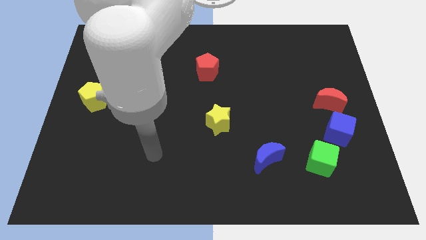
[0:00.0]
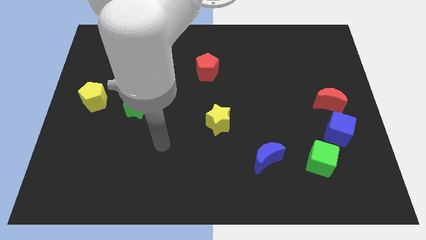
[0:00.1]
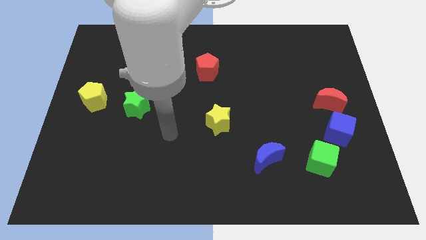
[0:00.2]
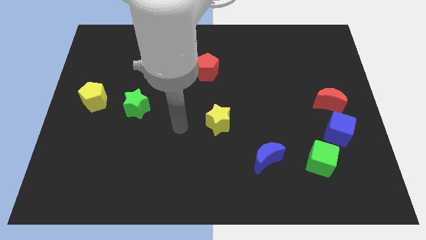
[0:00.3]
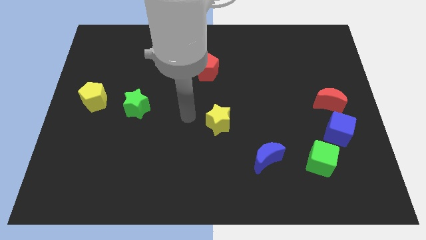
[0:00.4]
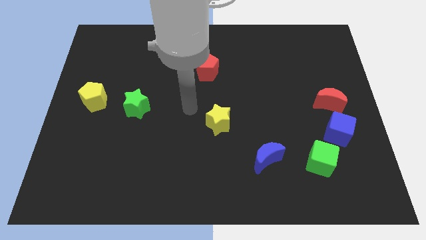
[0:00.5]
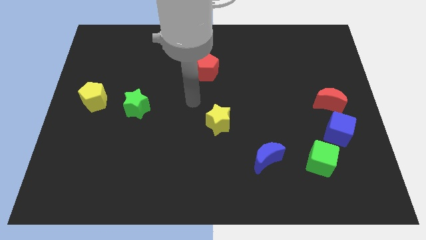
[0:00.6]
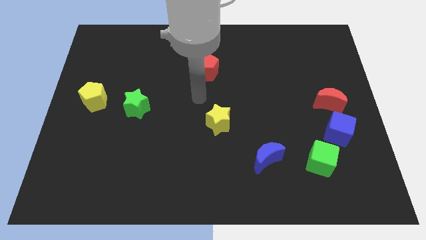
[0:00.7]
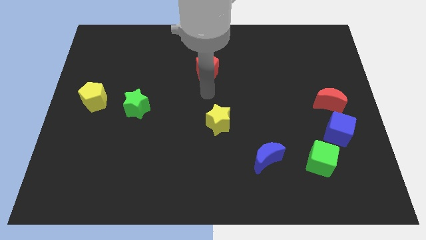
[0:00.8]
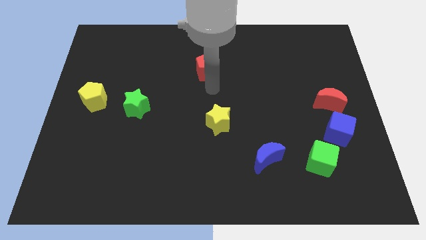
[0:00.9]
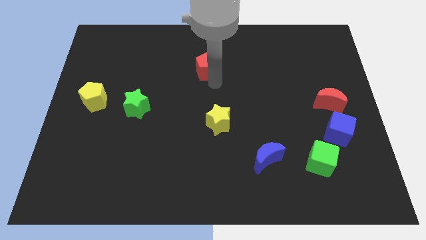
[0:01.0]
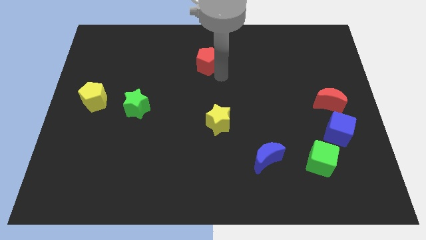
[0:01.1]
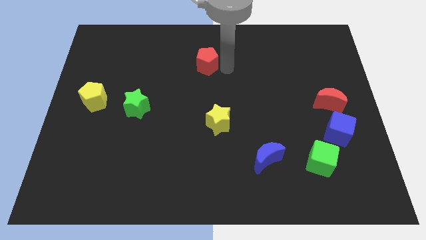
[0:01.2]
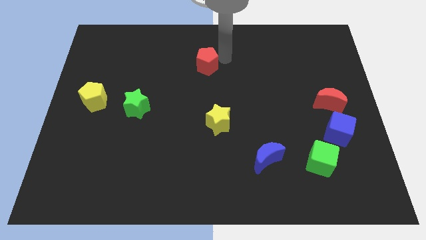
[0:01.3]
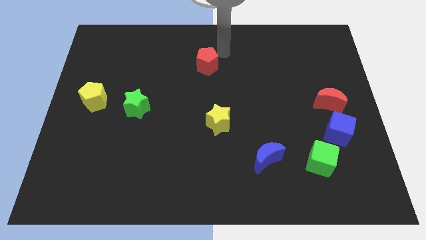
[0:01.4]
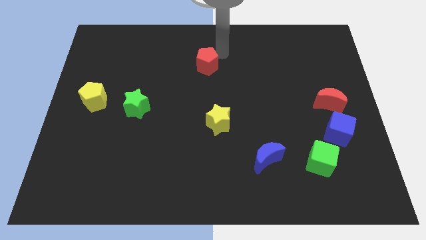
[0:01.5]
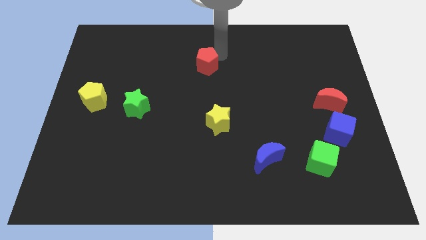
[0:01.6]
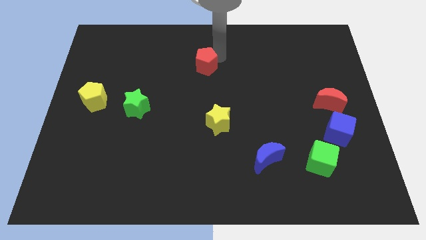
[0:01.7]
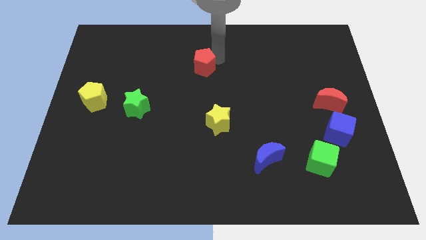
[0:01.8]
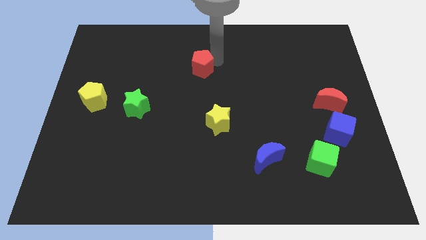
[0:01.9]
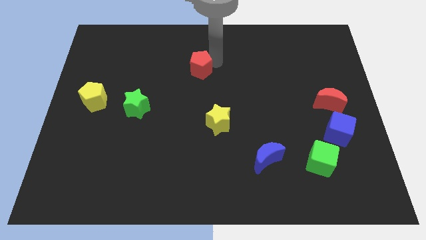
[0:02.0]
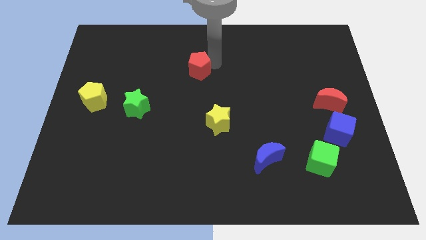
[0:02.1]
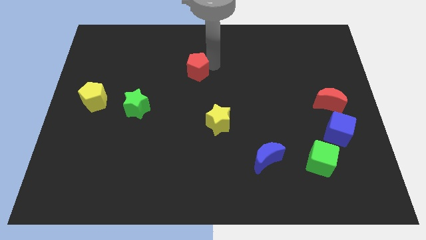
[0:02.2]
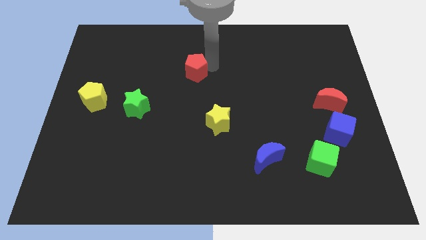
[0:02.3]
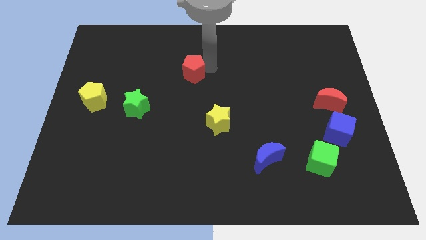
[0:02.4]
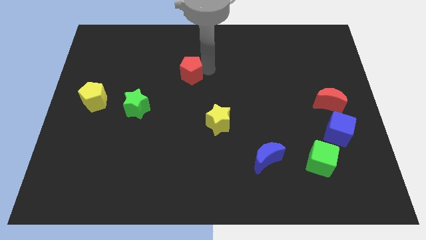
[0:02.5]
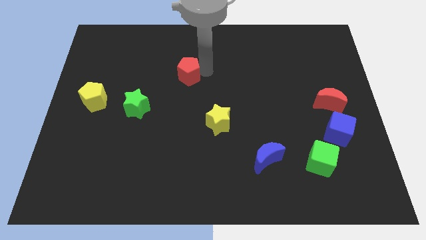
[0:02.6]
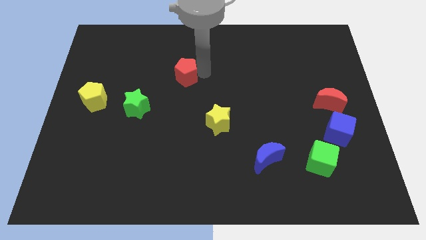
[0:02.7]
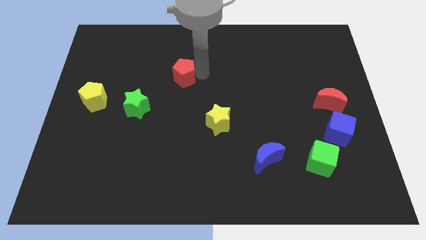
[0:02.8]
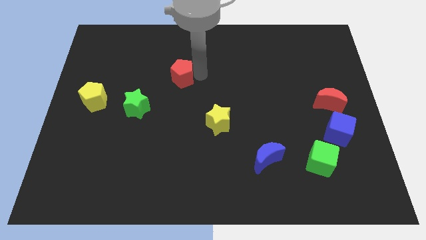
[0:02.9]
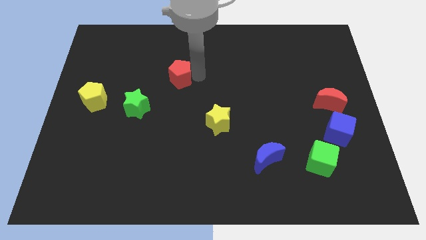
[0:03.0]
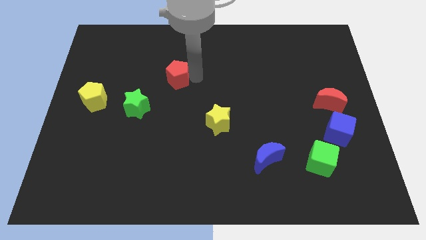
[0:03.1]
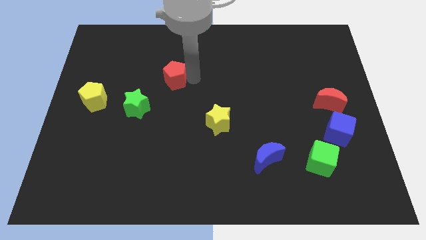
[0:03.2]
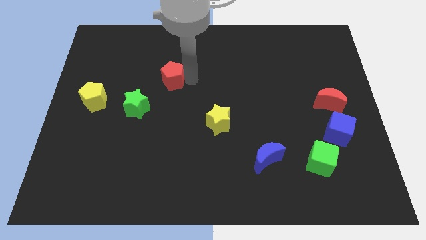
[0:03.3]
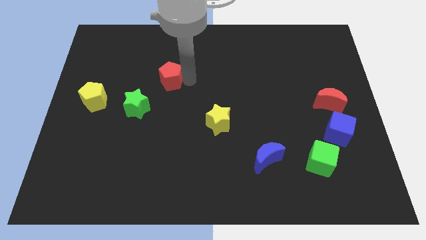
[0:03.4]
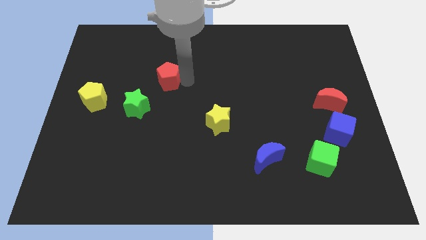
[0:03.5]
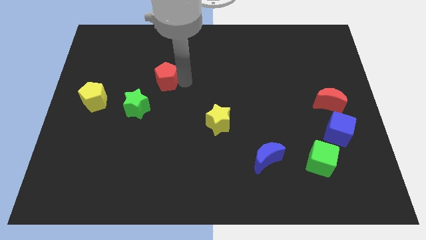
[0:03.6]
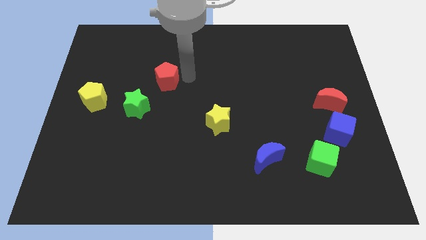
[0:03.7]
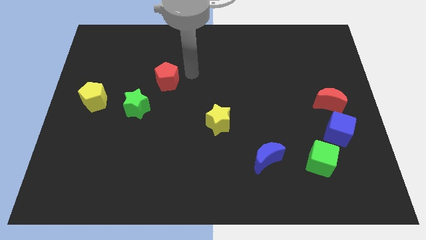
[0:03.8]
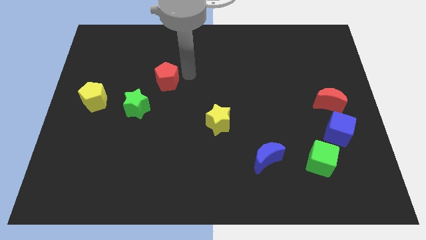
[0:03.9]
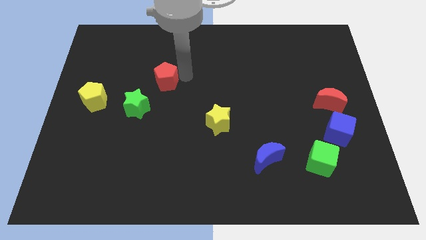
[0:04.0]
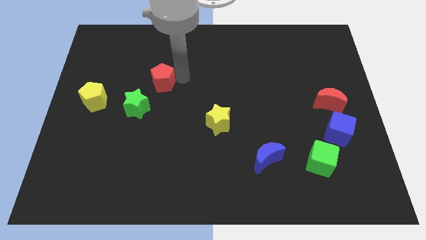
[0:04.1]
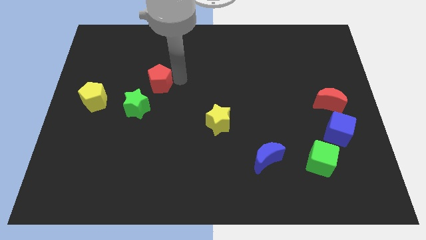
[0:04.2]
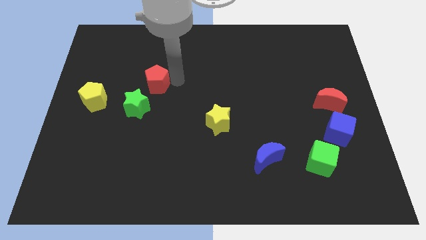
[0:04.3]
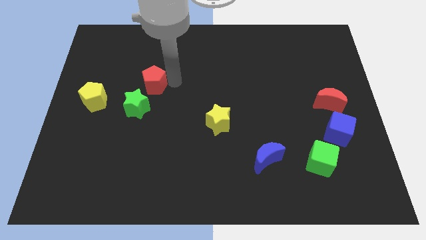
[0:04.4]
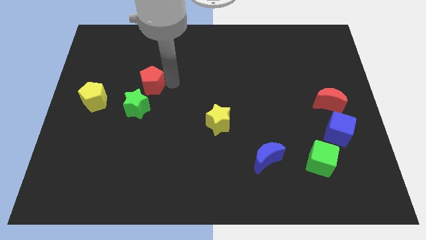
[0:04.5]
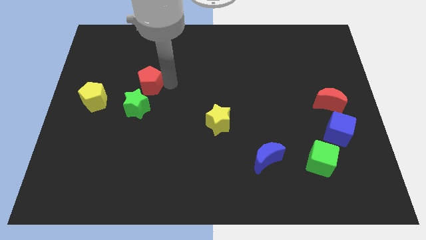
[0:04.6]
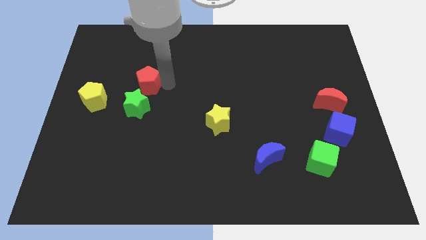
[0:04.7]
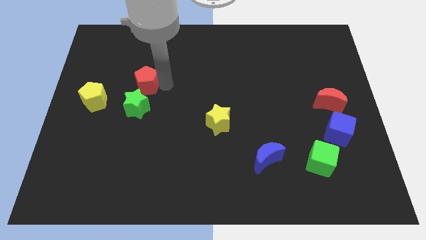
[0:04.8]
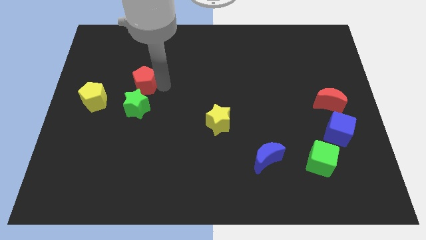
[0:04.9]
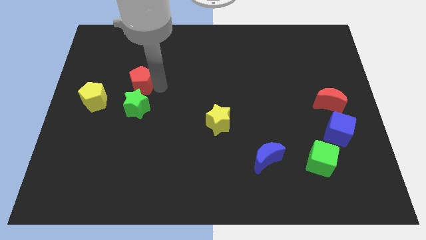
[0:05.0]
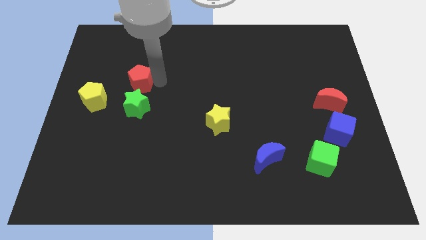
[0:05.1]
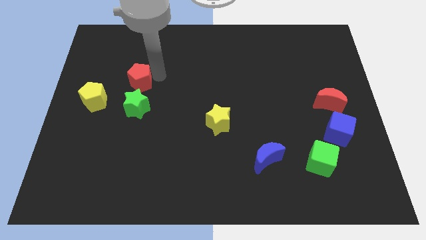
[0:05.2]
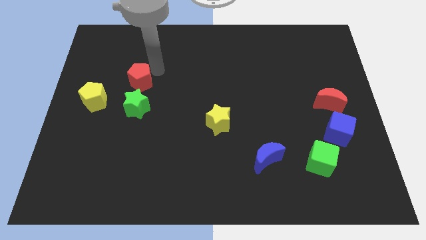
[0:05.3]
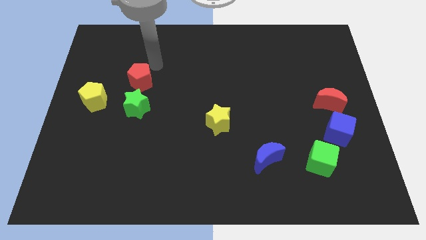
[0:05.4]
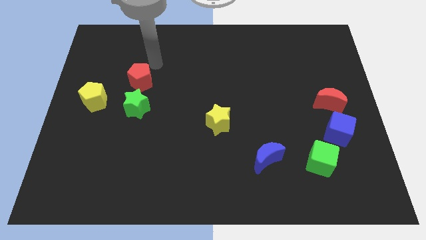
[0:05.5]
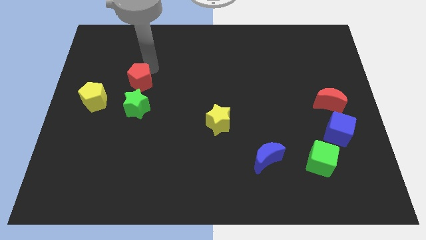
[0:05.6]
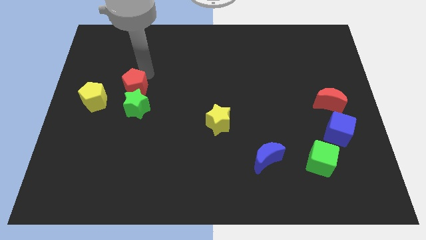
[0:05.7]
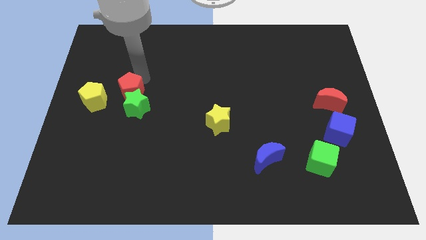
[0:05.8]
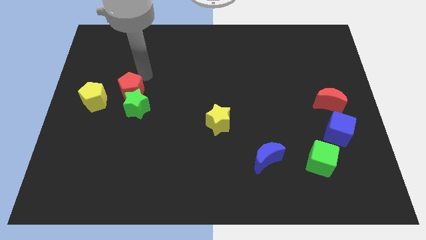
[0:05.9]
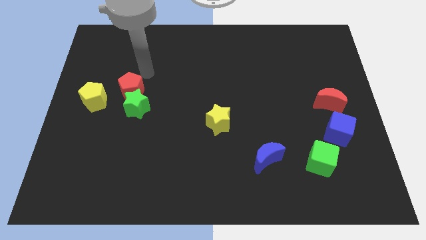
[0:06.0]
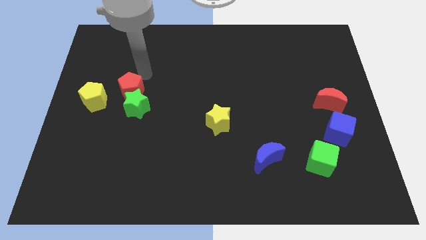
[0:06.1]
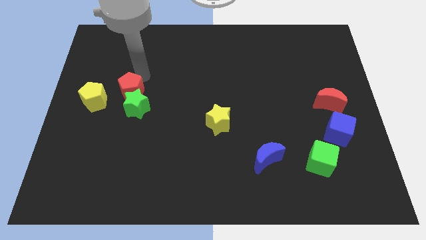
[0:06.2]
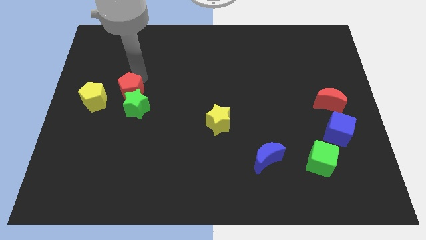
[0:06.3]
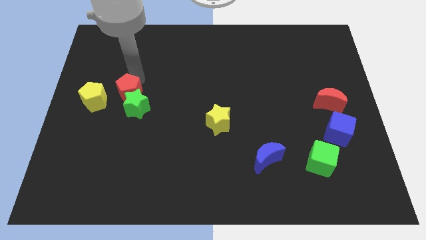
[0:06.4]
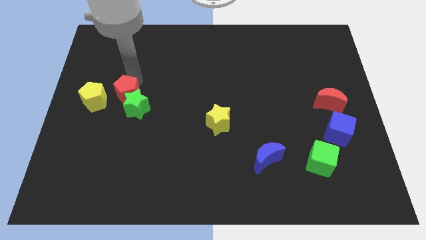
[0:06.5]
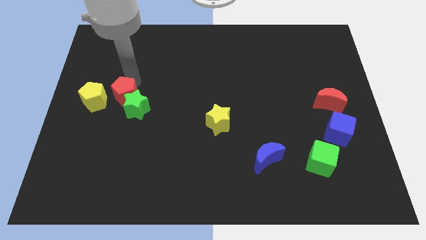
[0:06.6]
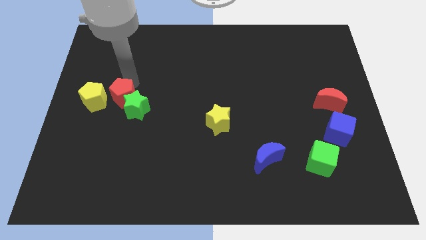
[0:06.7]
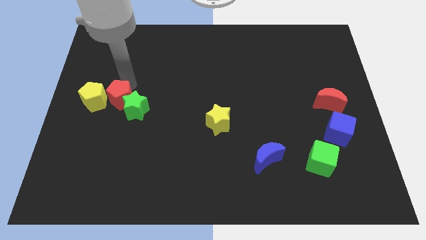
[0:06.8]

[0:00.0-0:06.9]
put the red pentagon to the bottom right side of the yellow pentagon

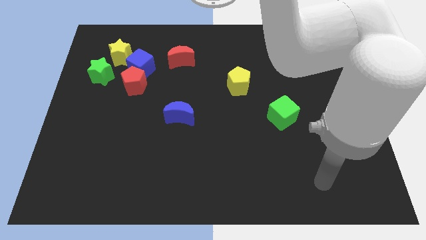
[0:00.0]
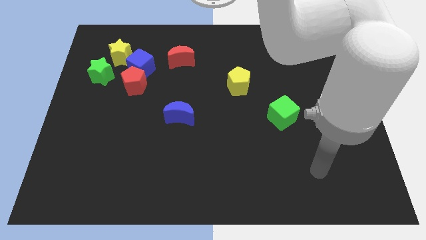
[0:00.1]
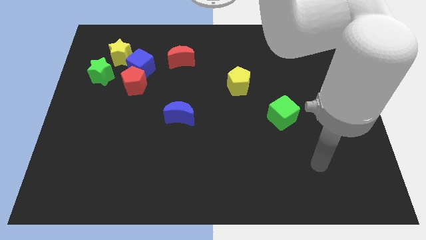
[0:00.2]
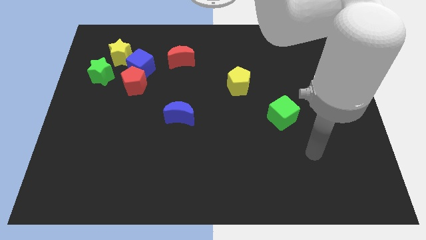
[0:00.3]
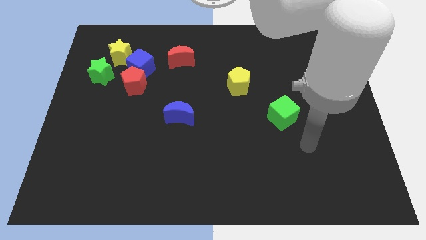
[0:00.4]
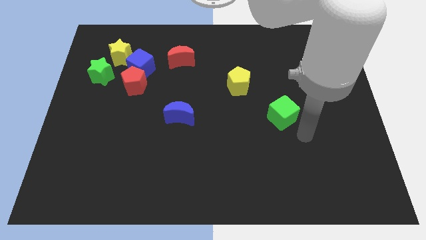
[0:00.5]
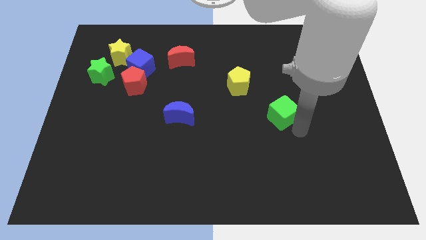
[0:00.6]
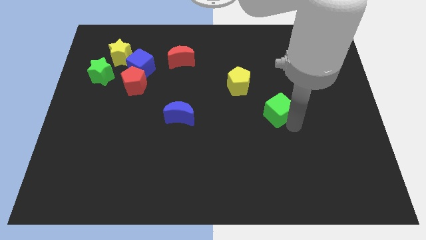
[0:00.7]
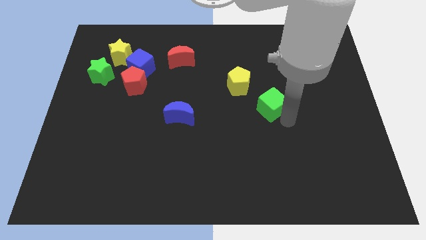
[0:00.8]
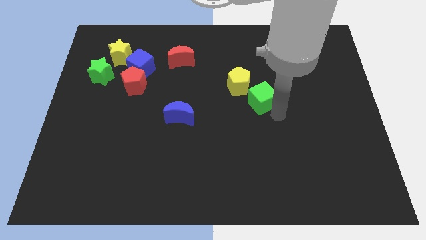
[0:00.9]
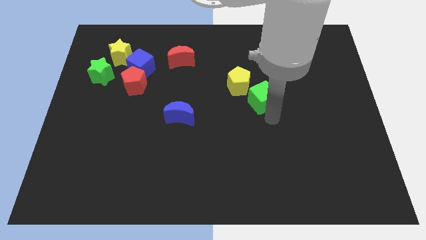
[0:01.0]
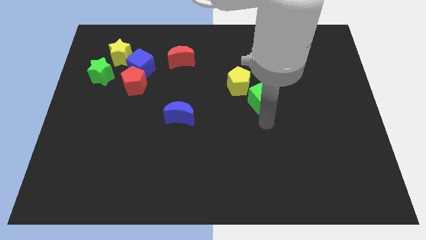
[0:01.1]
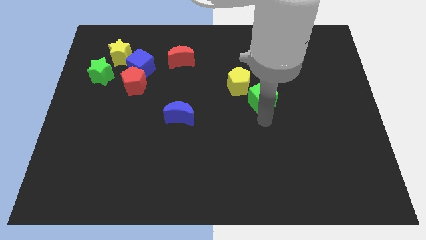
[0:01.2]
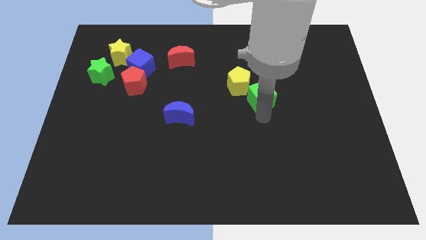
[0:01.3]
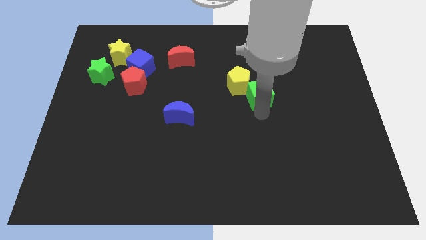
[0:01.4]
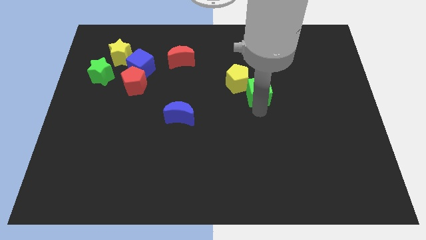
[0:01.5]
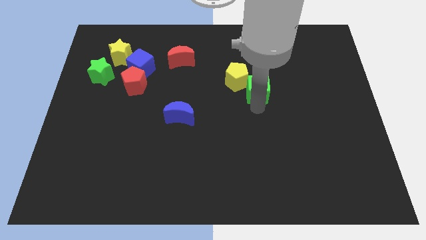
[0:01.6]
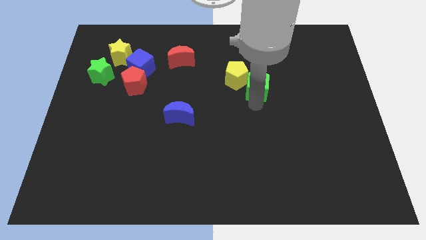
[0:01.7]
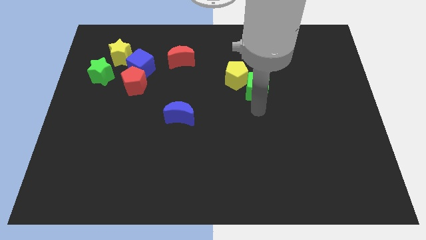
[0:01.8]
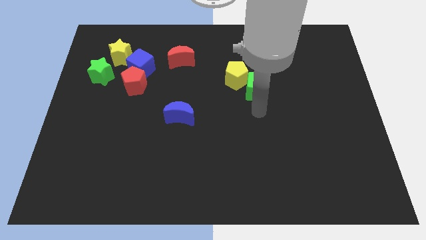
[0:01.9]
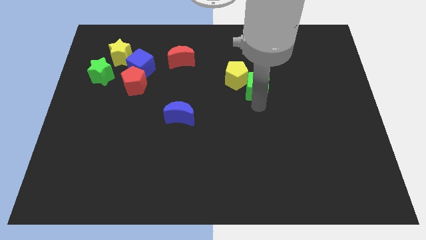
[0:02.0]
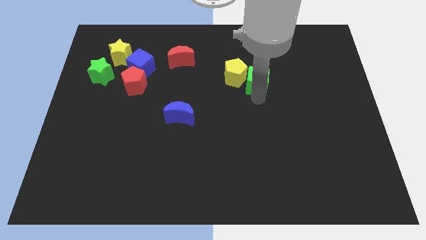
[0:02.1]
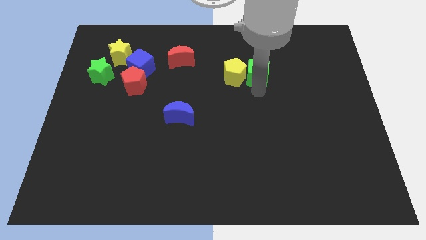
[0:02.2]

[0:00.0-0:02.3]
put the green cube diagonally up and to the right of the yellow pentagon
